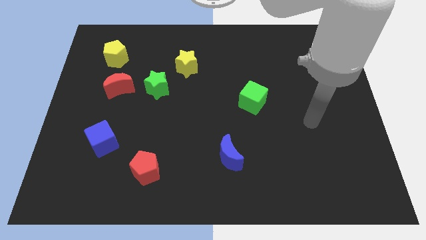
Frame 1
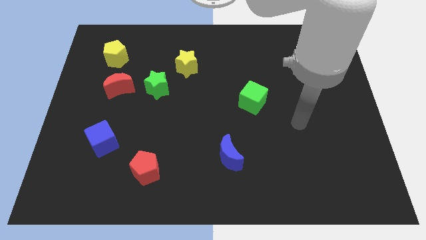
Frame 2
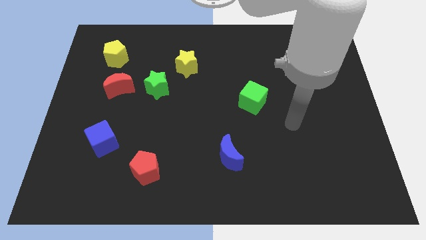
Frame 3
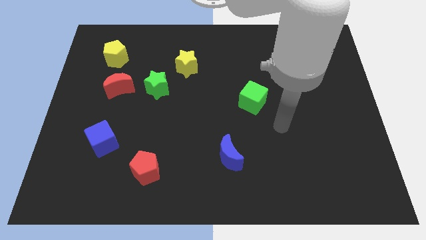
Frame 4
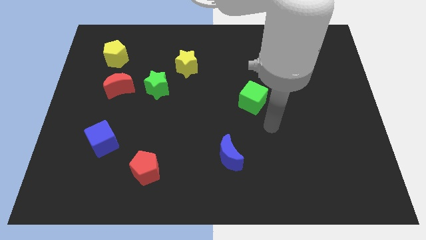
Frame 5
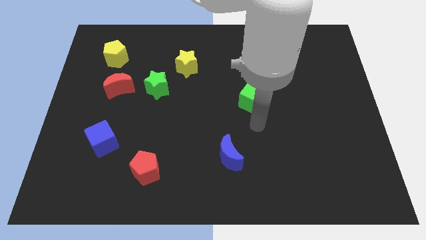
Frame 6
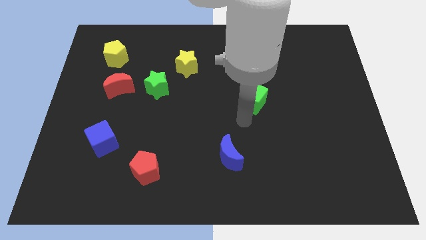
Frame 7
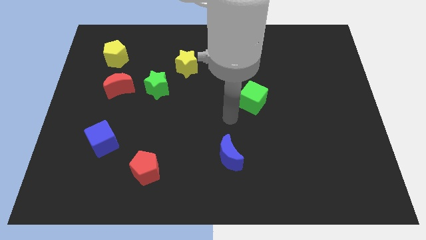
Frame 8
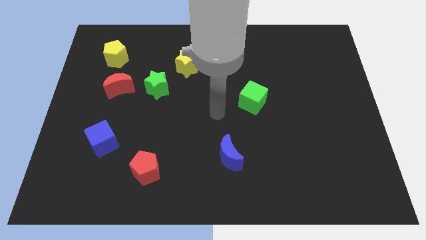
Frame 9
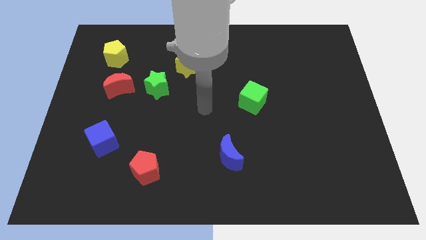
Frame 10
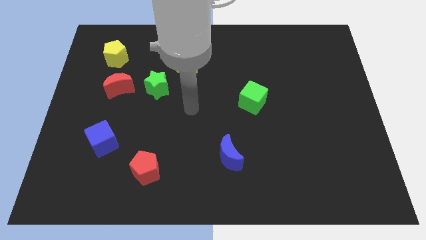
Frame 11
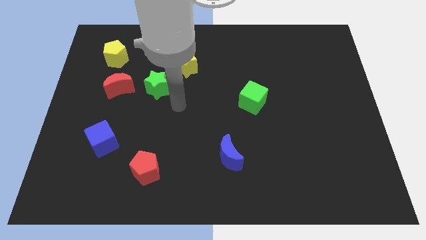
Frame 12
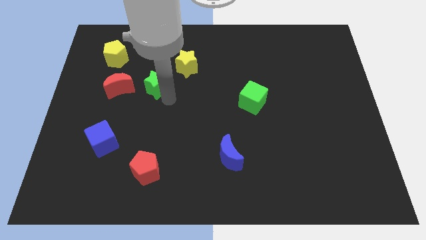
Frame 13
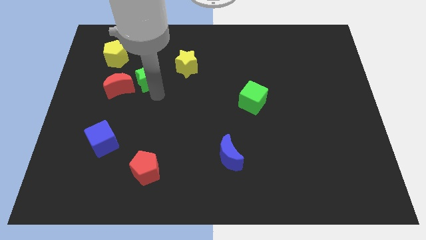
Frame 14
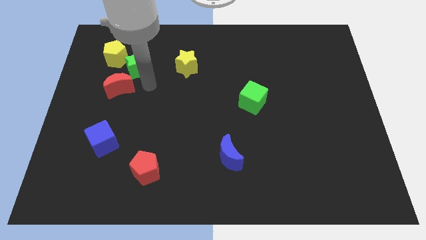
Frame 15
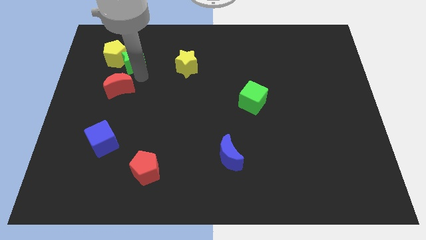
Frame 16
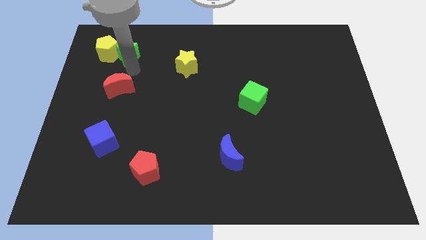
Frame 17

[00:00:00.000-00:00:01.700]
separate the red moon from the green star

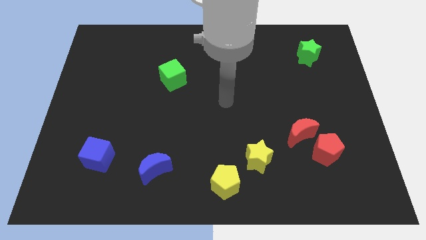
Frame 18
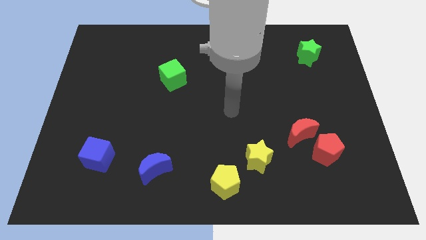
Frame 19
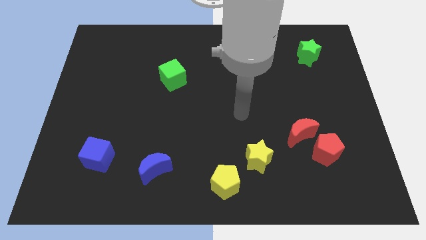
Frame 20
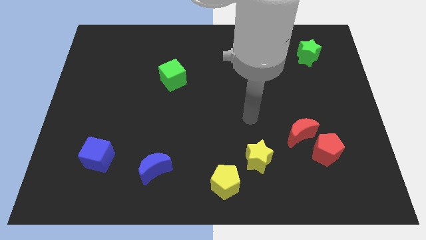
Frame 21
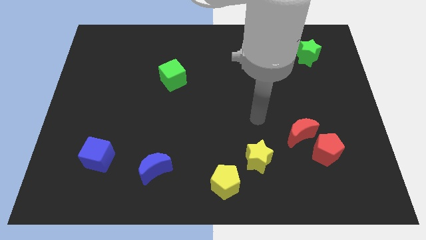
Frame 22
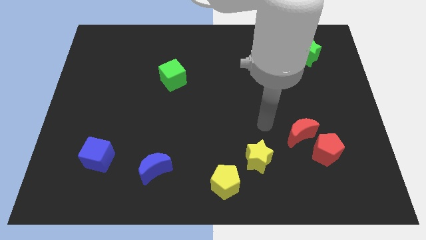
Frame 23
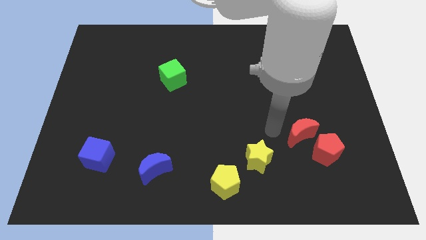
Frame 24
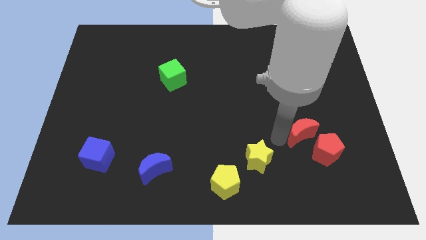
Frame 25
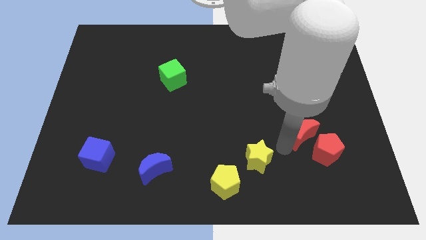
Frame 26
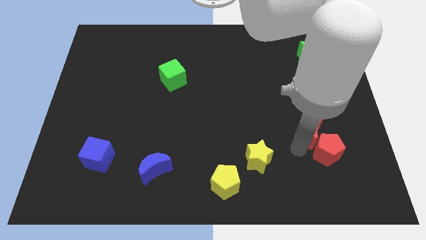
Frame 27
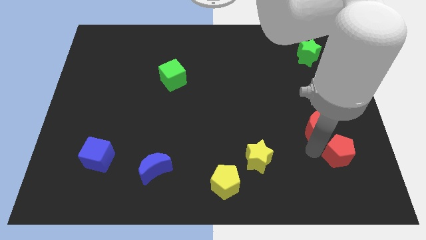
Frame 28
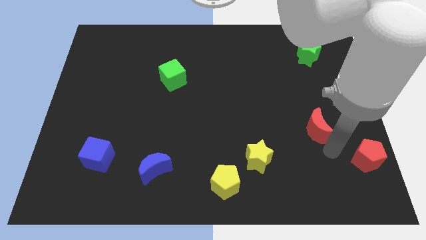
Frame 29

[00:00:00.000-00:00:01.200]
pull the red moon apart from the red pentagon

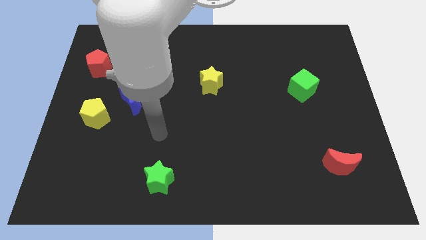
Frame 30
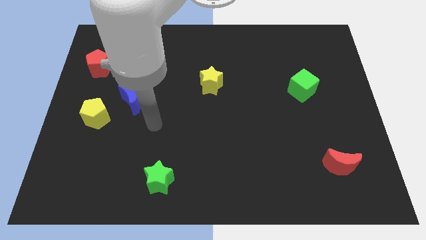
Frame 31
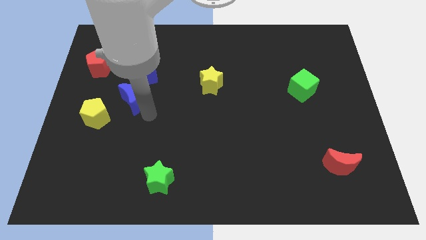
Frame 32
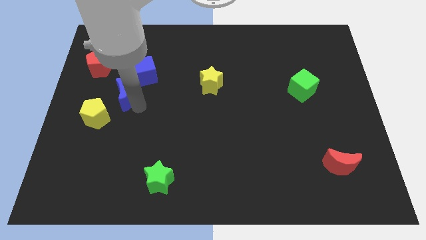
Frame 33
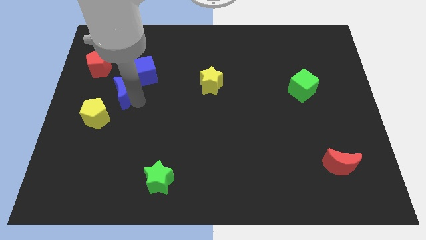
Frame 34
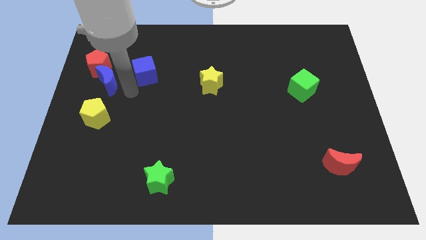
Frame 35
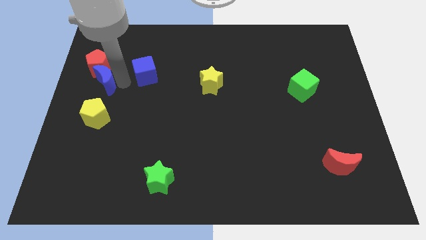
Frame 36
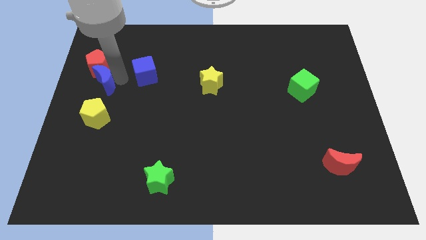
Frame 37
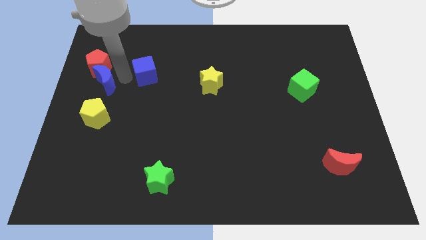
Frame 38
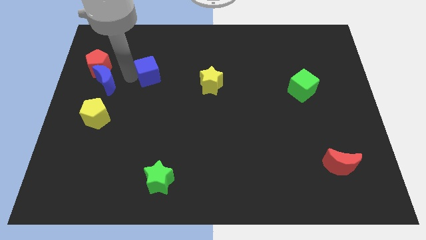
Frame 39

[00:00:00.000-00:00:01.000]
pull the blue cube apart from the blue moon

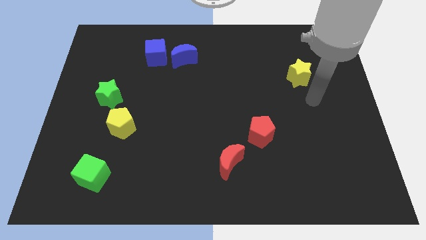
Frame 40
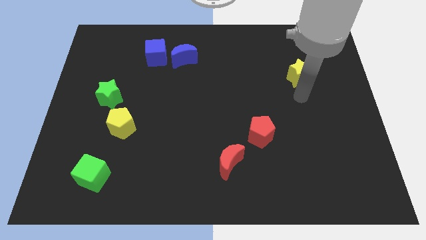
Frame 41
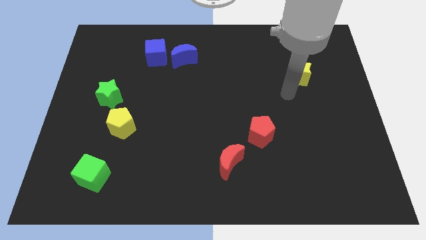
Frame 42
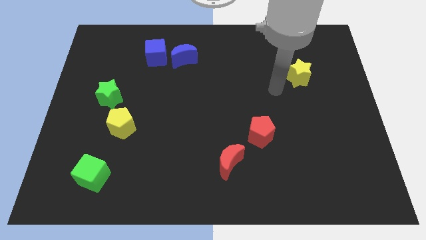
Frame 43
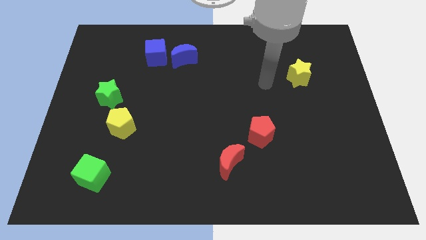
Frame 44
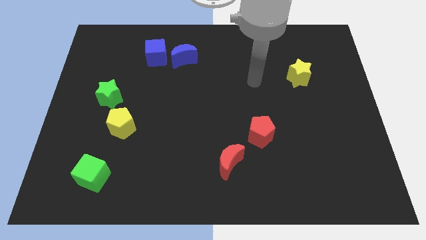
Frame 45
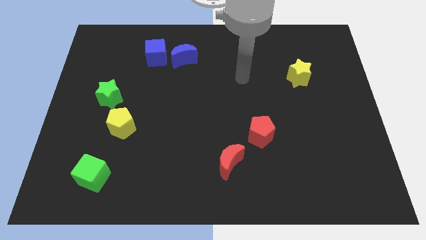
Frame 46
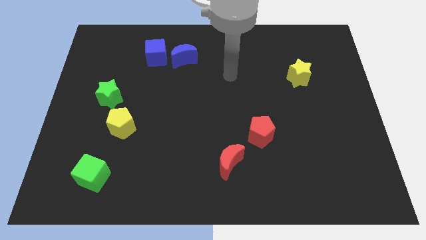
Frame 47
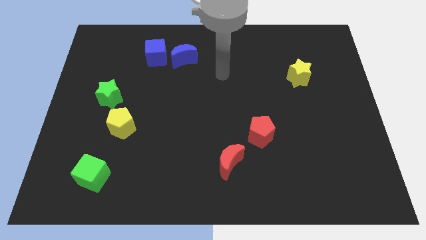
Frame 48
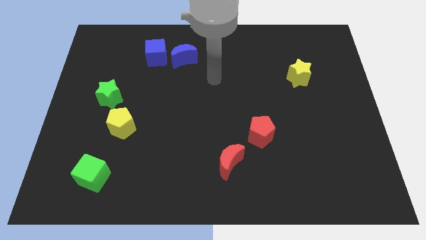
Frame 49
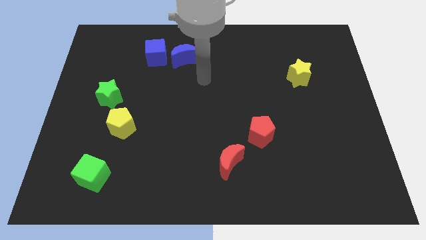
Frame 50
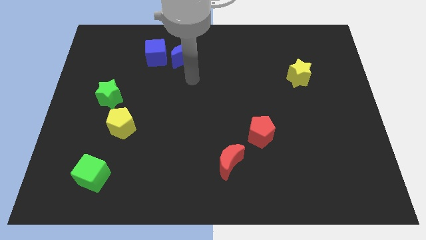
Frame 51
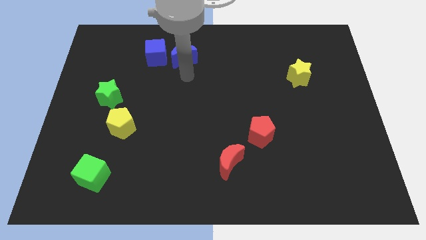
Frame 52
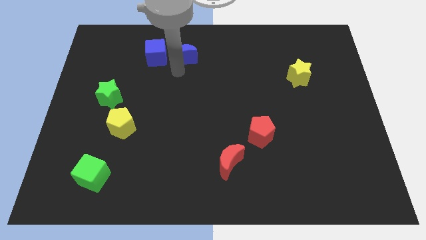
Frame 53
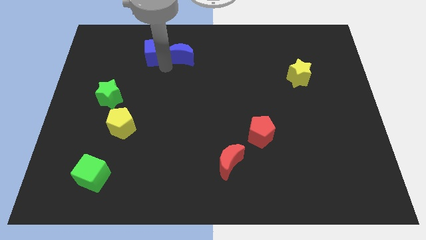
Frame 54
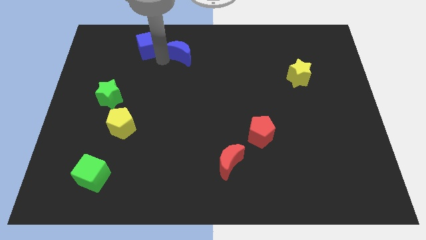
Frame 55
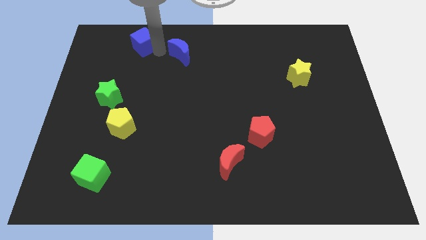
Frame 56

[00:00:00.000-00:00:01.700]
pull the blue moon apart from the blue cube

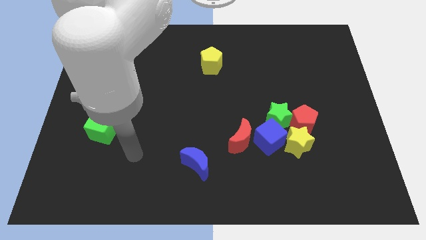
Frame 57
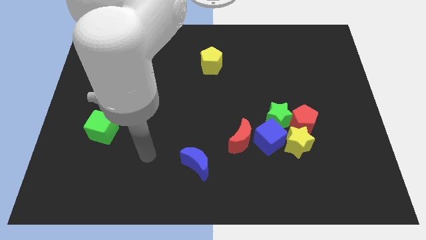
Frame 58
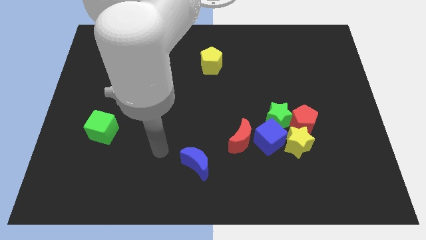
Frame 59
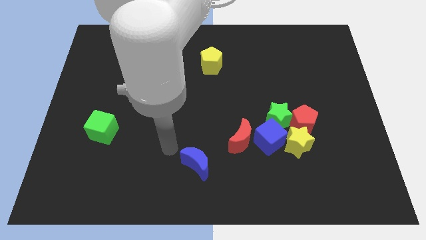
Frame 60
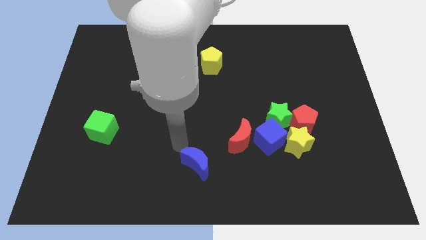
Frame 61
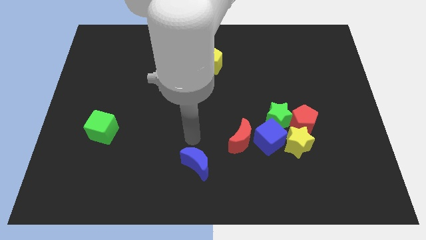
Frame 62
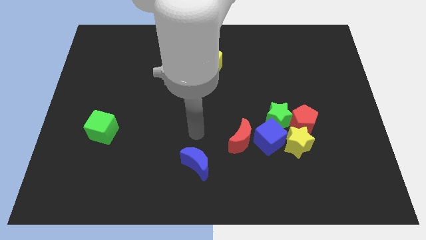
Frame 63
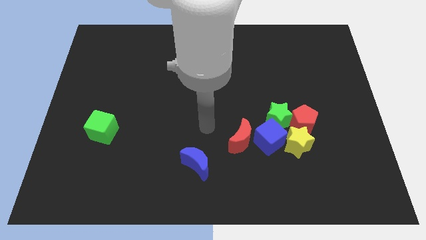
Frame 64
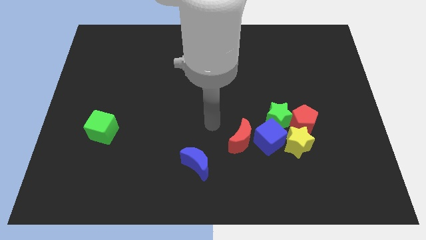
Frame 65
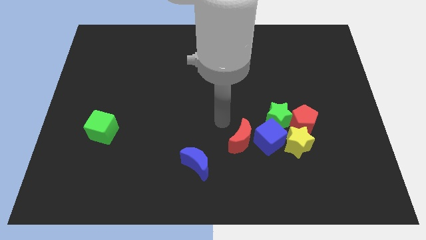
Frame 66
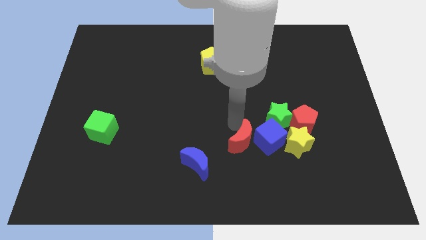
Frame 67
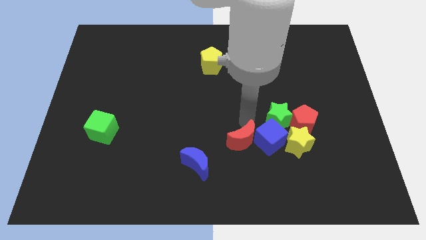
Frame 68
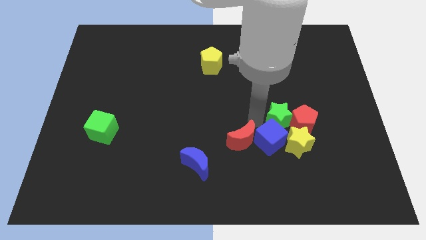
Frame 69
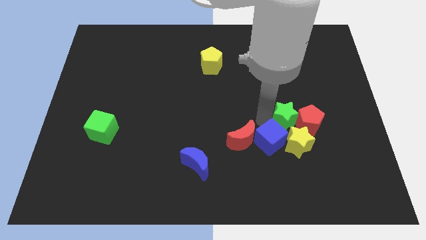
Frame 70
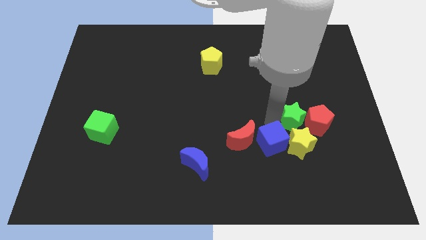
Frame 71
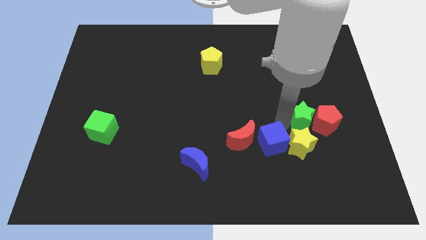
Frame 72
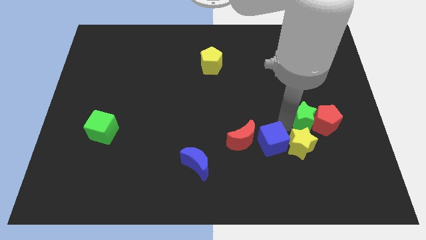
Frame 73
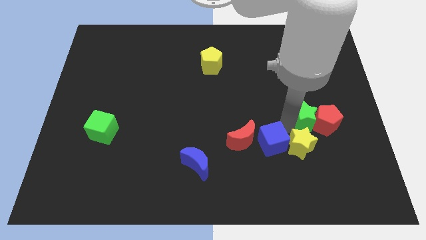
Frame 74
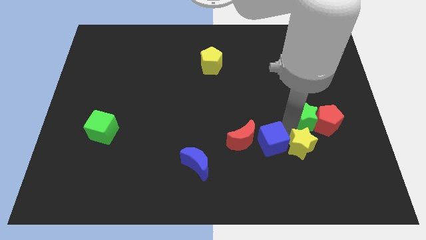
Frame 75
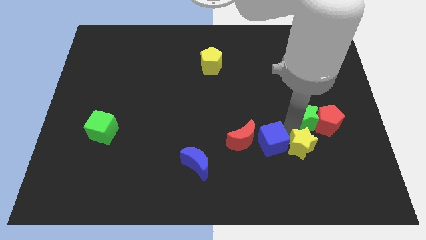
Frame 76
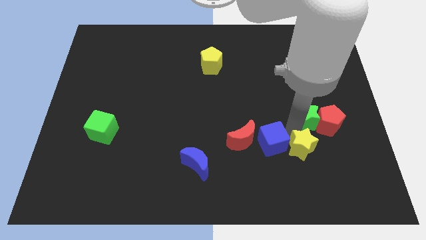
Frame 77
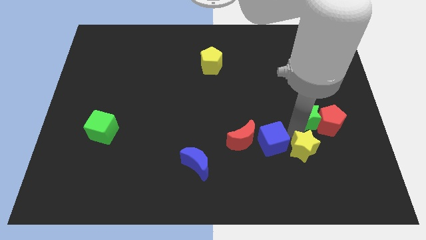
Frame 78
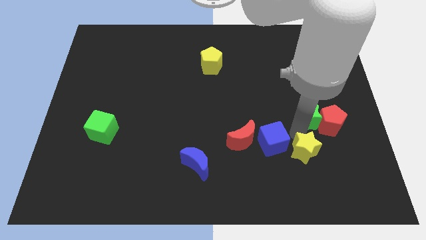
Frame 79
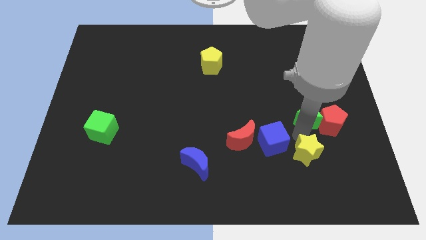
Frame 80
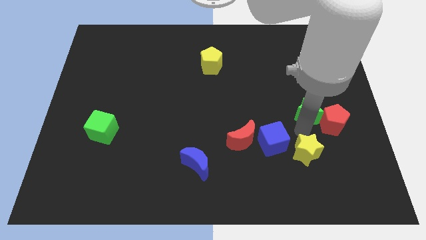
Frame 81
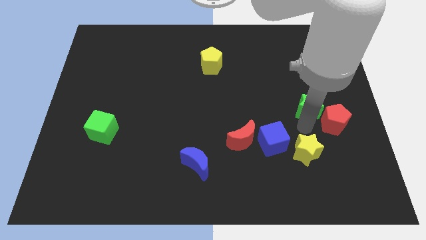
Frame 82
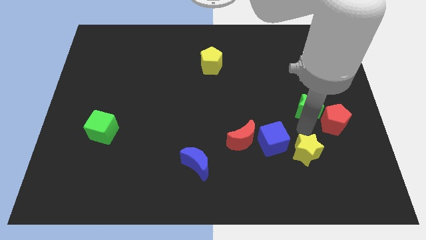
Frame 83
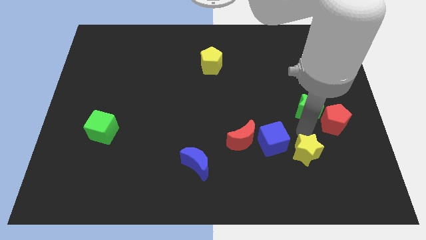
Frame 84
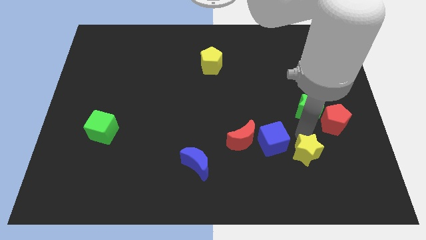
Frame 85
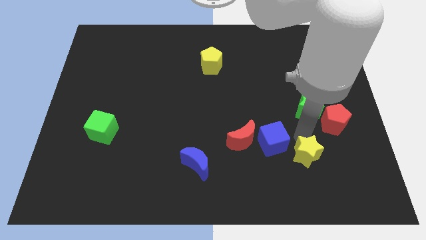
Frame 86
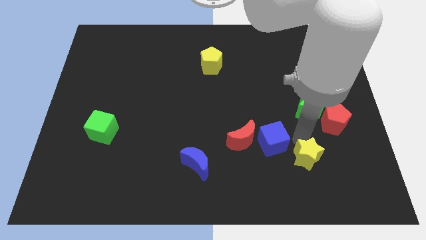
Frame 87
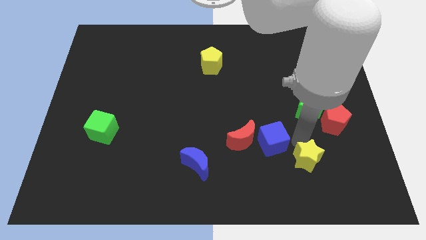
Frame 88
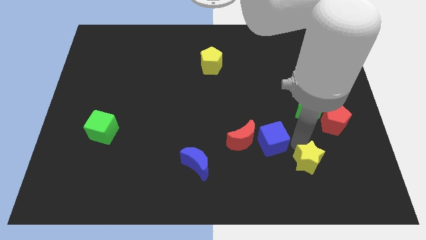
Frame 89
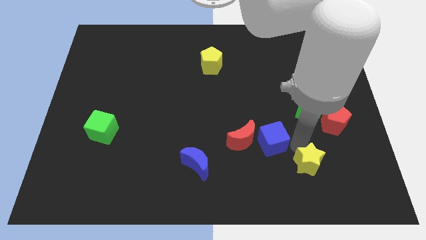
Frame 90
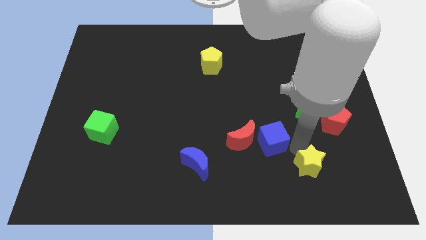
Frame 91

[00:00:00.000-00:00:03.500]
separate the yellow star from the group
